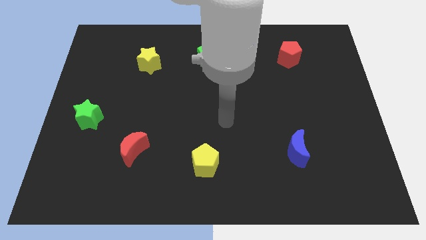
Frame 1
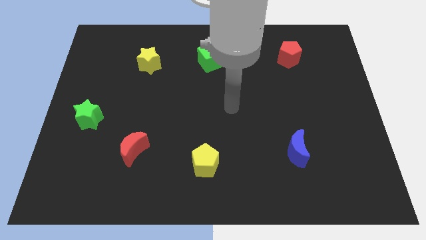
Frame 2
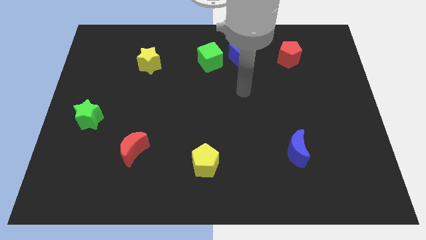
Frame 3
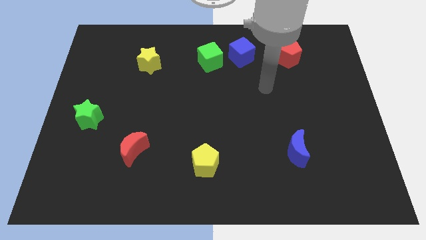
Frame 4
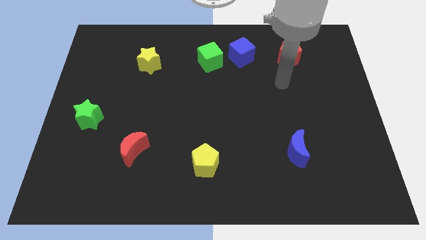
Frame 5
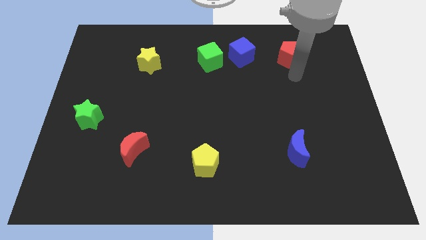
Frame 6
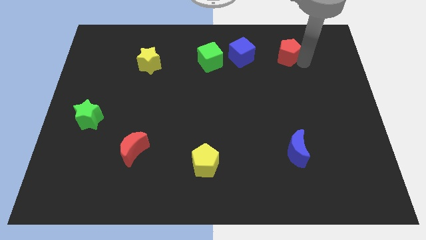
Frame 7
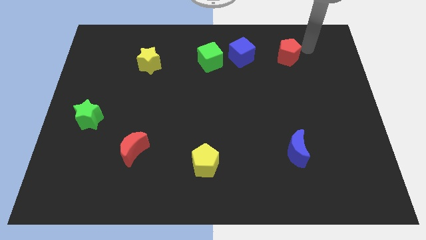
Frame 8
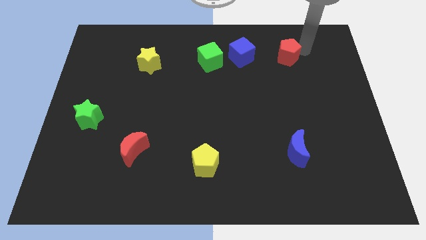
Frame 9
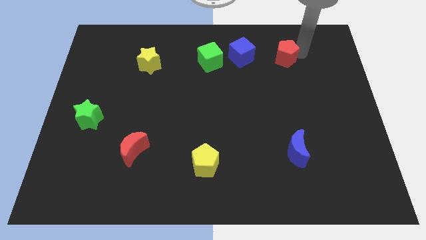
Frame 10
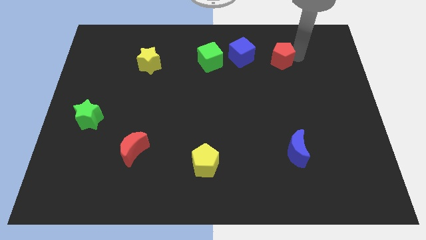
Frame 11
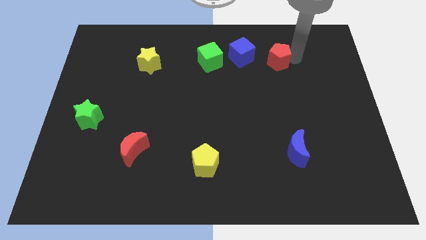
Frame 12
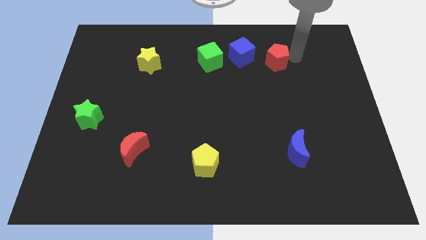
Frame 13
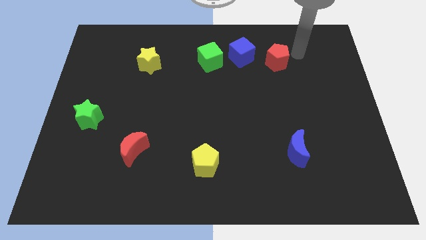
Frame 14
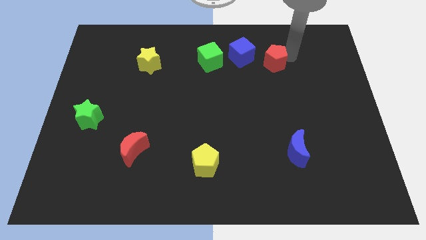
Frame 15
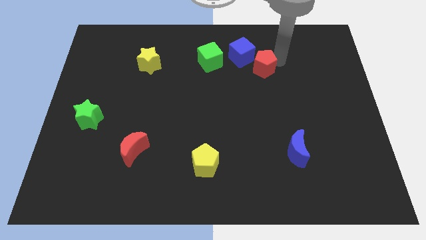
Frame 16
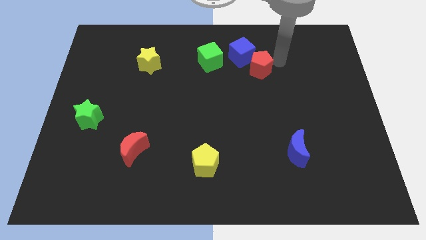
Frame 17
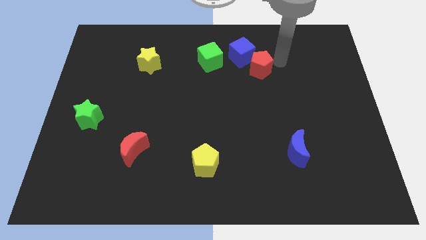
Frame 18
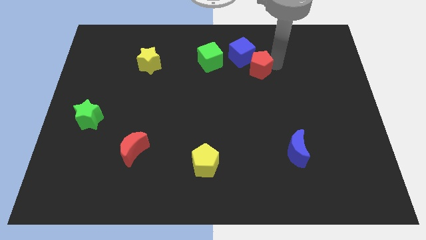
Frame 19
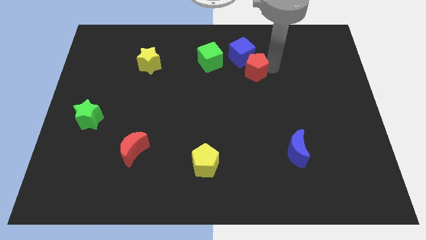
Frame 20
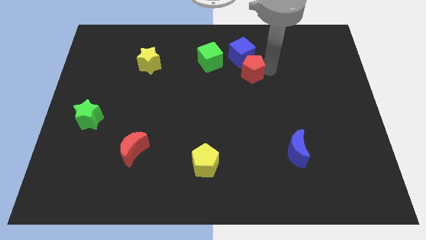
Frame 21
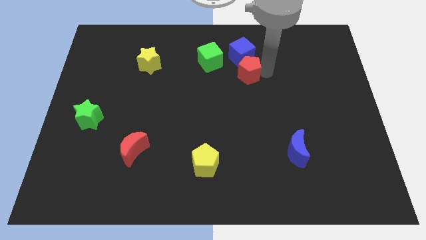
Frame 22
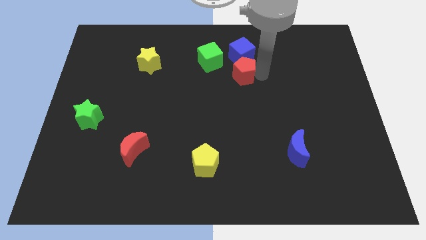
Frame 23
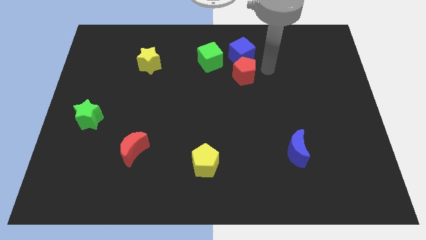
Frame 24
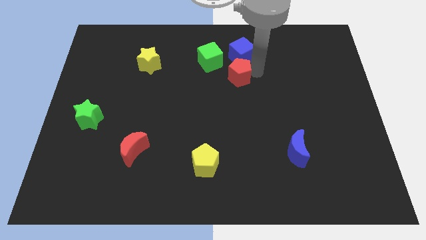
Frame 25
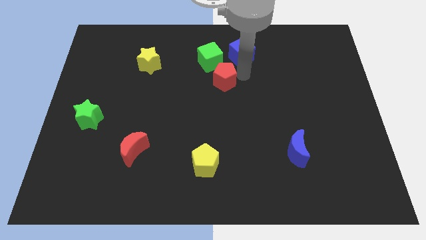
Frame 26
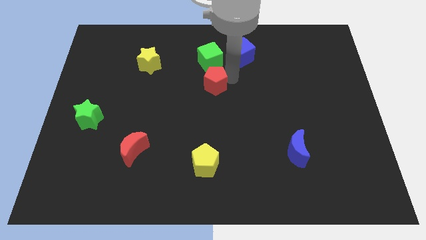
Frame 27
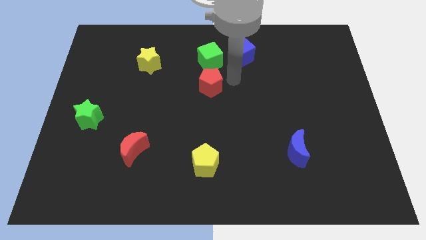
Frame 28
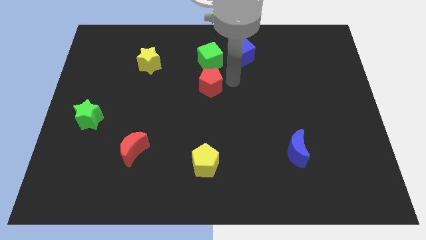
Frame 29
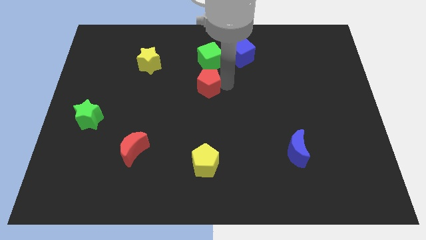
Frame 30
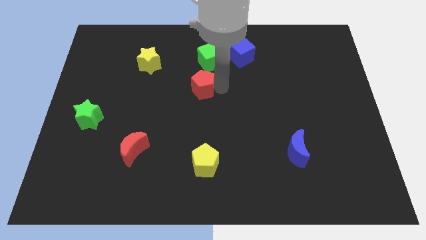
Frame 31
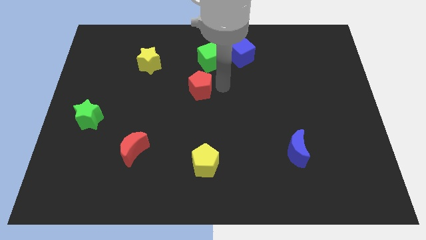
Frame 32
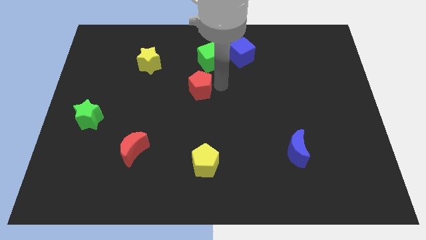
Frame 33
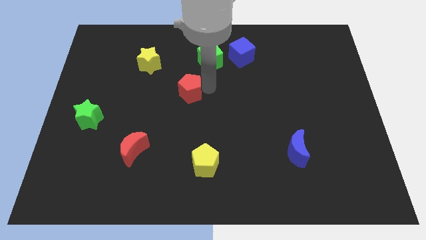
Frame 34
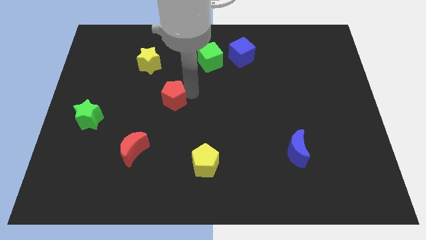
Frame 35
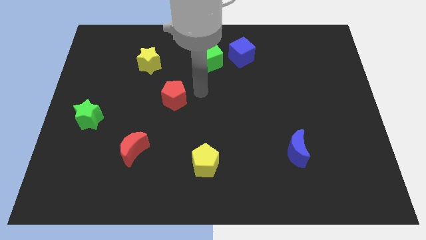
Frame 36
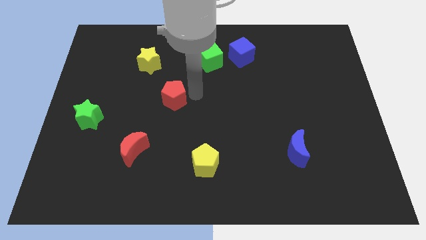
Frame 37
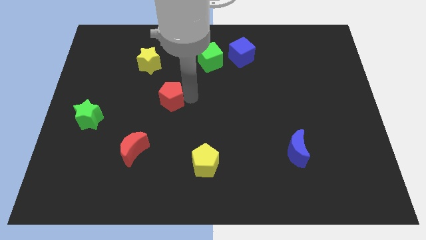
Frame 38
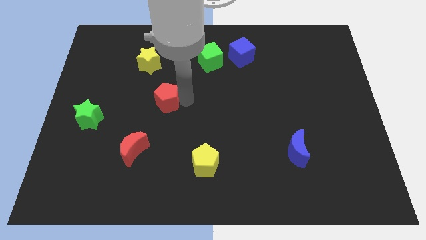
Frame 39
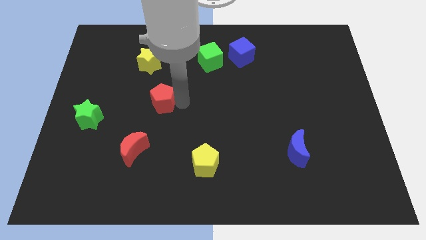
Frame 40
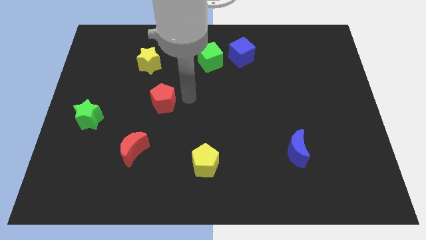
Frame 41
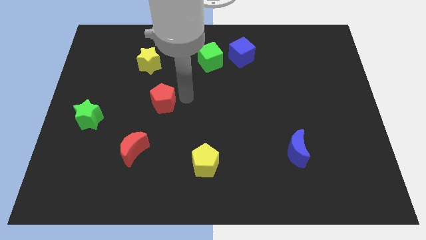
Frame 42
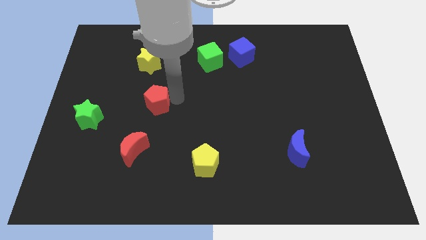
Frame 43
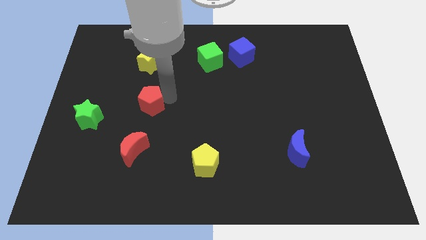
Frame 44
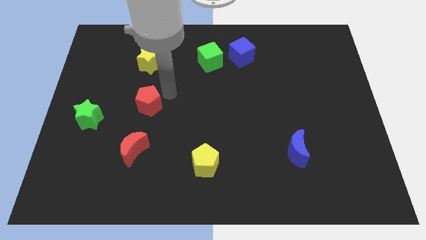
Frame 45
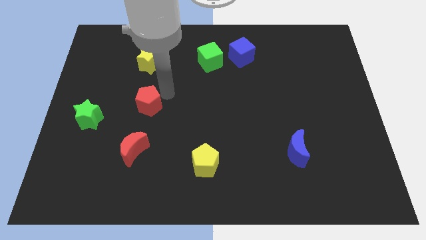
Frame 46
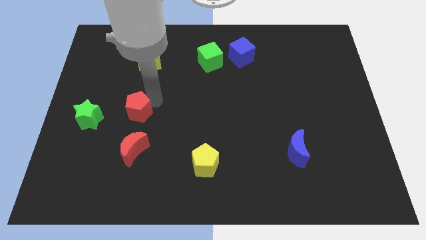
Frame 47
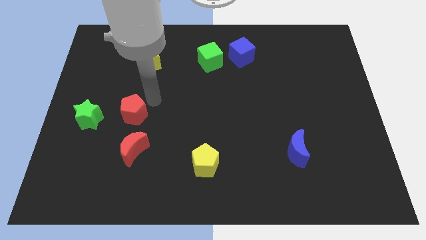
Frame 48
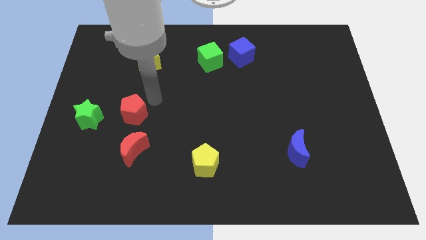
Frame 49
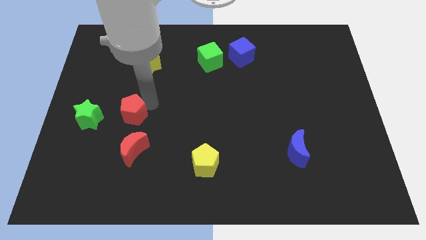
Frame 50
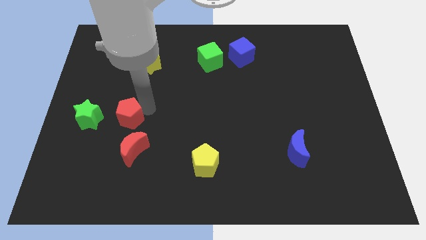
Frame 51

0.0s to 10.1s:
slide the red pentagon to the top left of the red moon

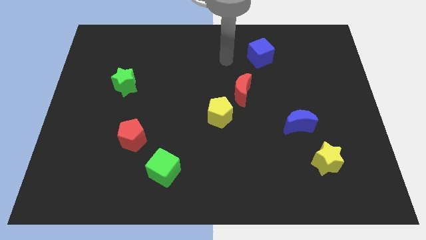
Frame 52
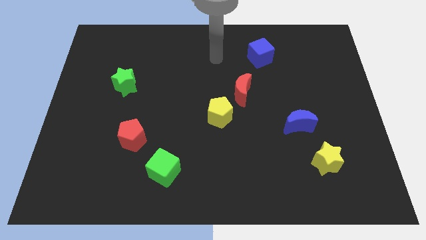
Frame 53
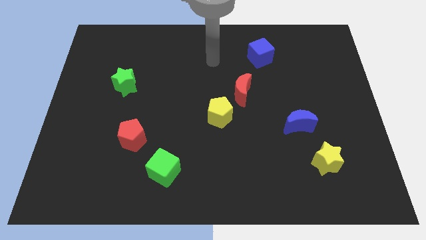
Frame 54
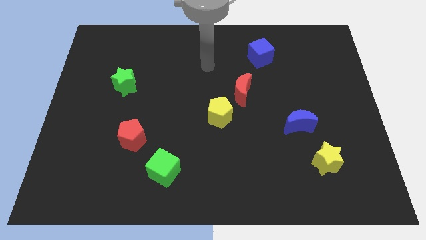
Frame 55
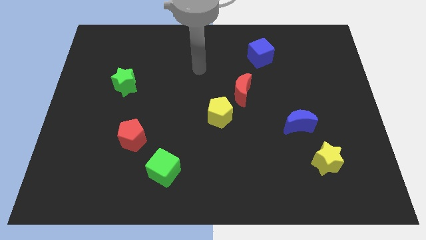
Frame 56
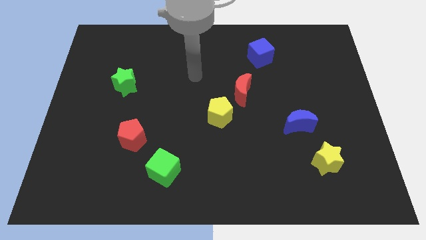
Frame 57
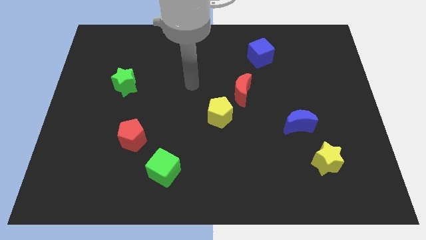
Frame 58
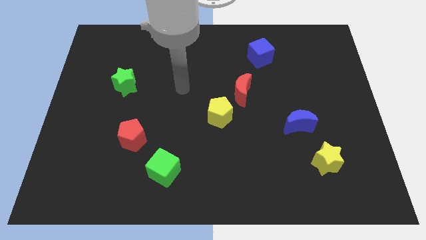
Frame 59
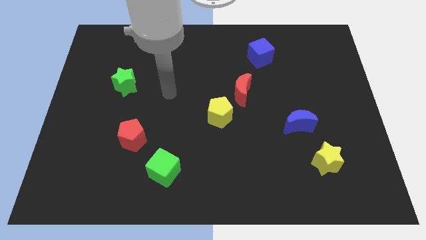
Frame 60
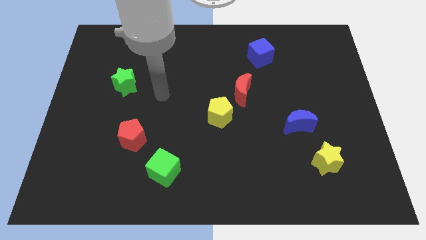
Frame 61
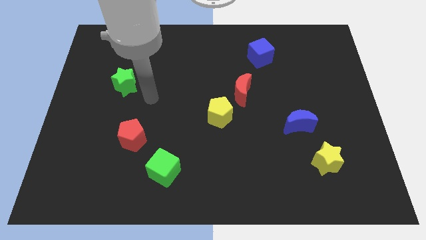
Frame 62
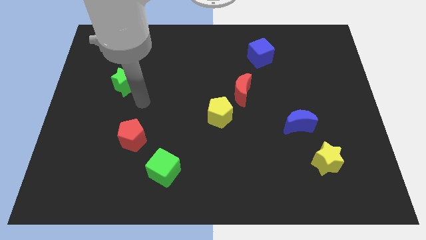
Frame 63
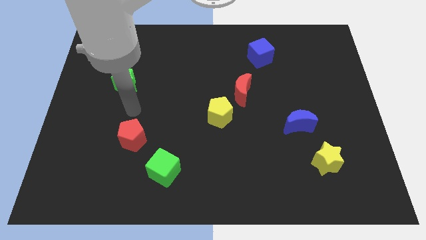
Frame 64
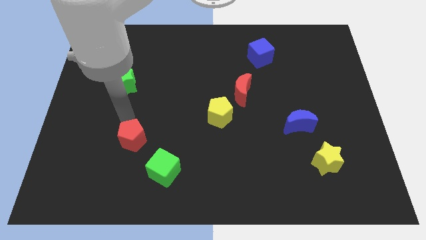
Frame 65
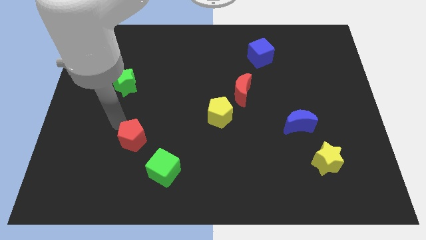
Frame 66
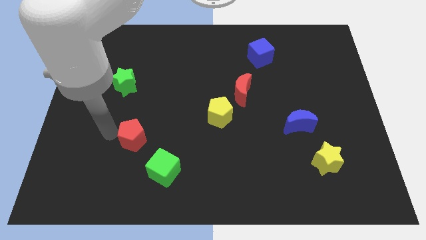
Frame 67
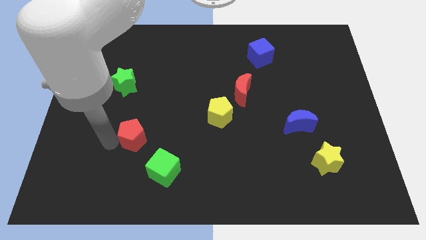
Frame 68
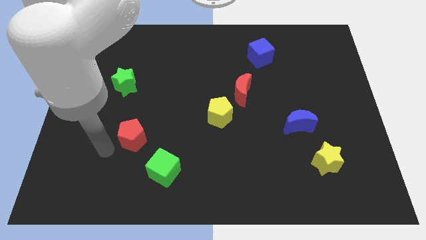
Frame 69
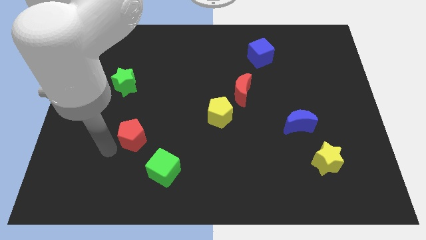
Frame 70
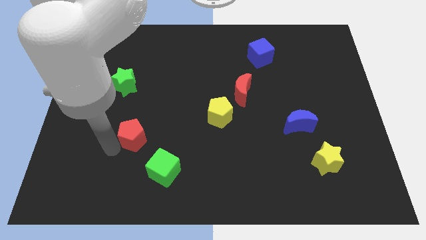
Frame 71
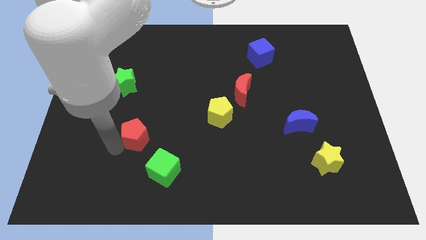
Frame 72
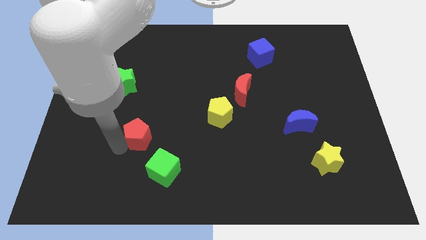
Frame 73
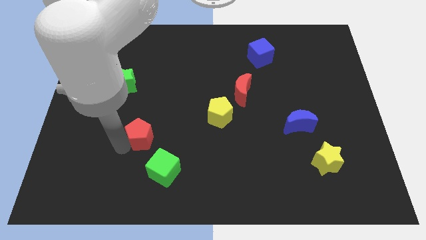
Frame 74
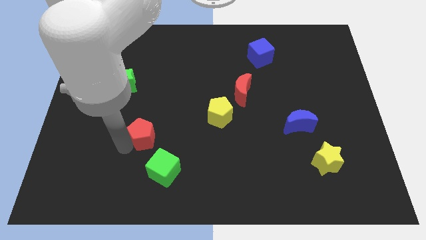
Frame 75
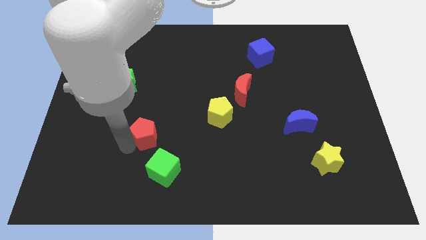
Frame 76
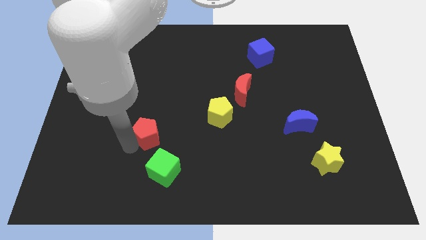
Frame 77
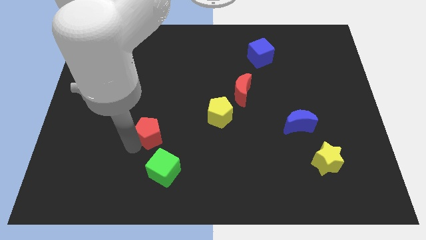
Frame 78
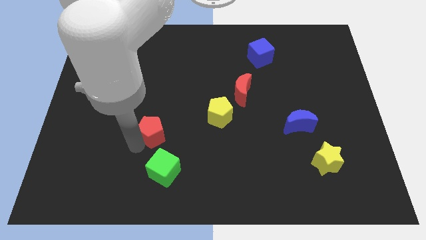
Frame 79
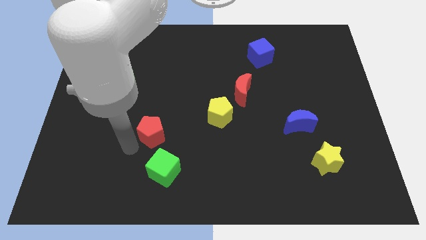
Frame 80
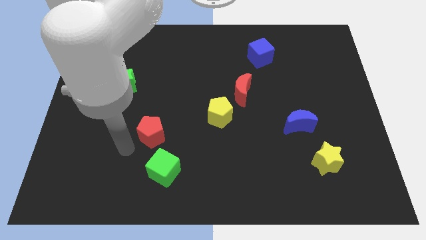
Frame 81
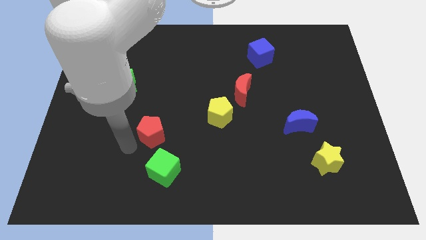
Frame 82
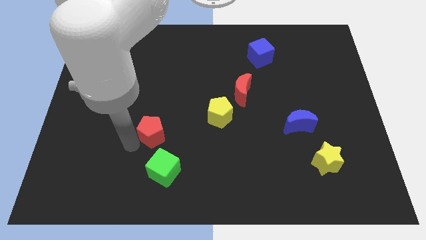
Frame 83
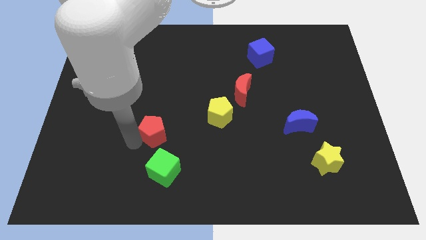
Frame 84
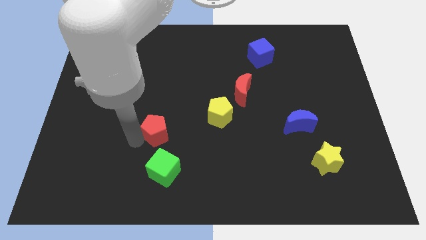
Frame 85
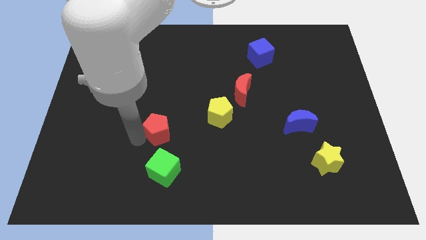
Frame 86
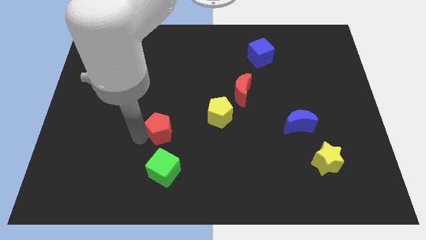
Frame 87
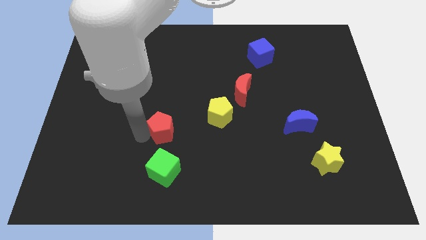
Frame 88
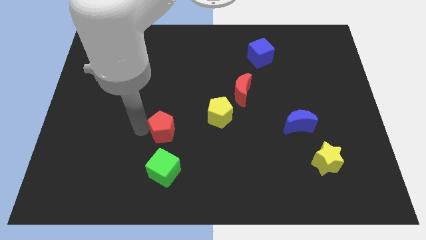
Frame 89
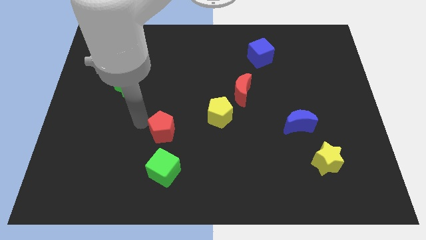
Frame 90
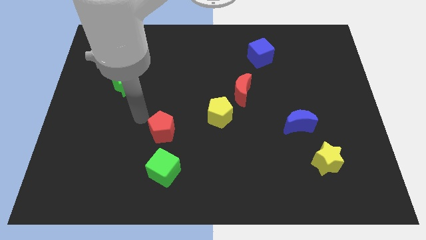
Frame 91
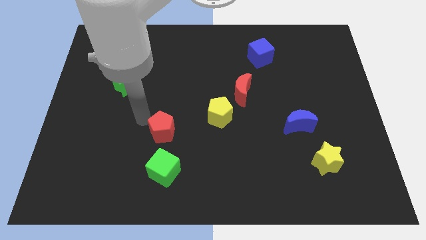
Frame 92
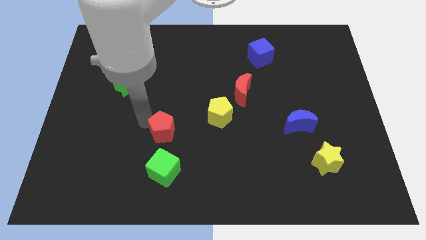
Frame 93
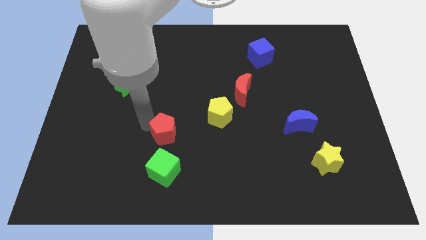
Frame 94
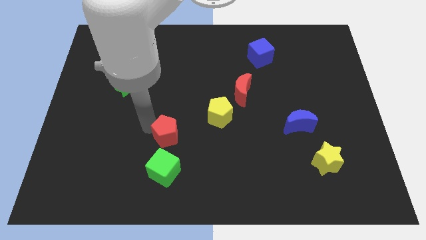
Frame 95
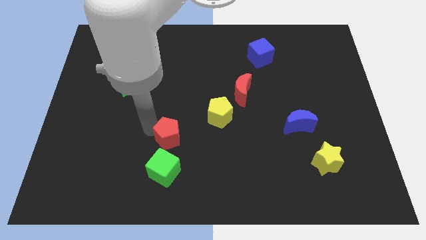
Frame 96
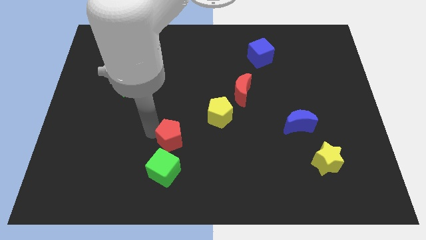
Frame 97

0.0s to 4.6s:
push the red pentagon diagonally up and to the right of the green cube
